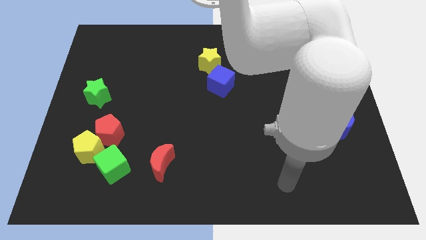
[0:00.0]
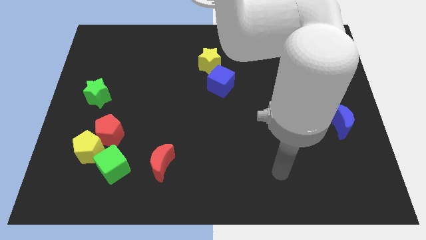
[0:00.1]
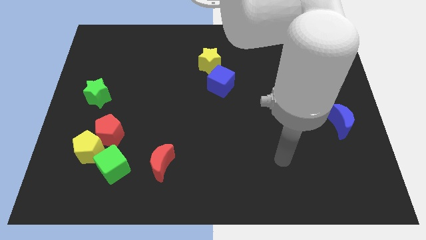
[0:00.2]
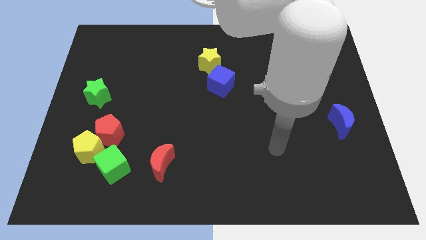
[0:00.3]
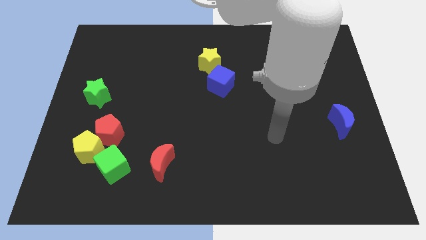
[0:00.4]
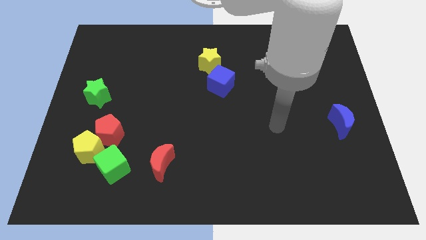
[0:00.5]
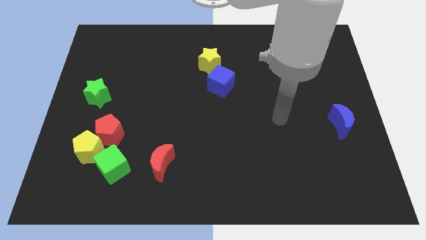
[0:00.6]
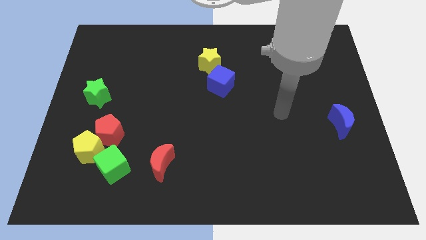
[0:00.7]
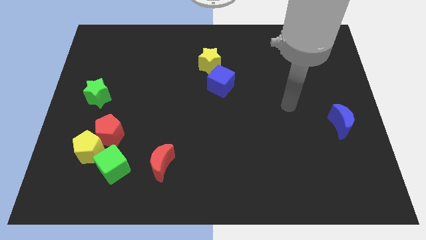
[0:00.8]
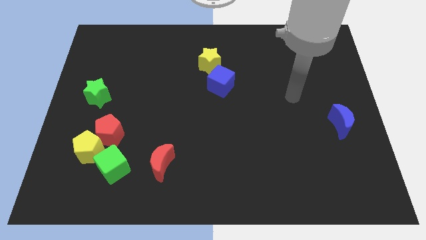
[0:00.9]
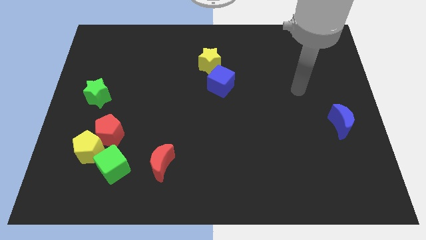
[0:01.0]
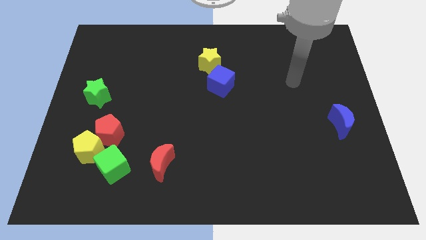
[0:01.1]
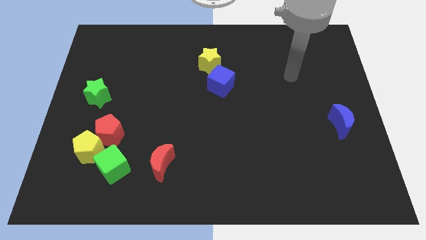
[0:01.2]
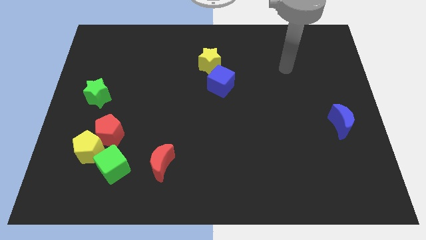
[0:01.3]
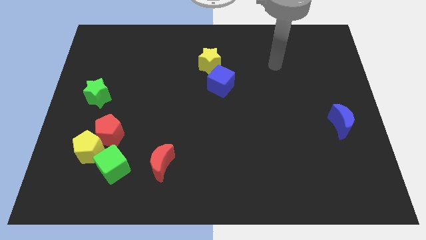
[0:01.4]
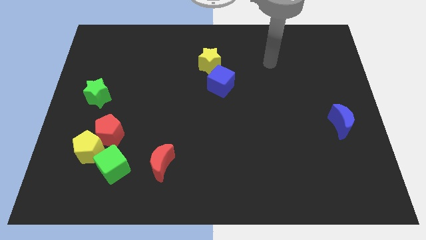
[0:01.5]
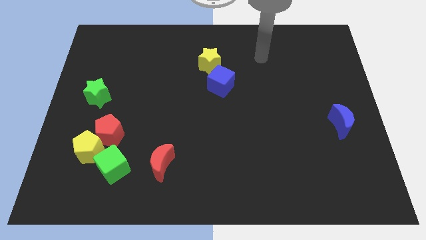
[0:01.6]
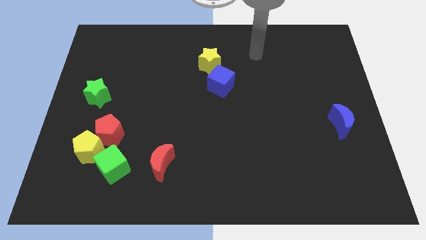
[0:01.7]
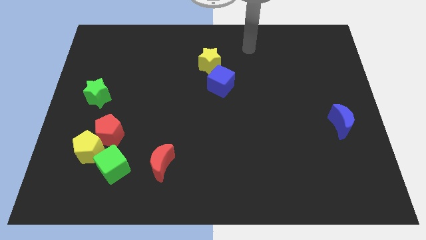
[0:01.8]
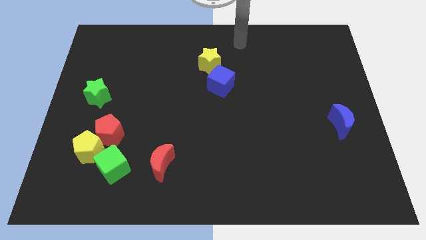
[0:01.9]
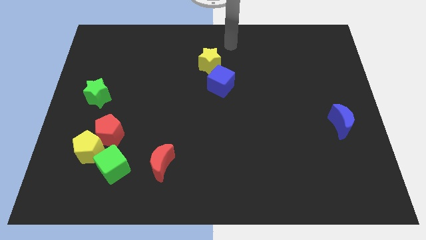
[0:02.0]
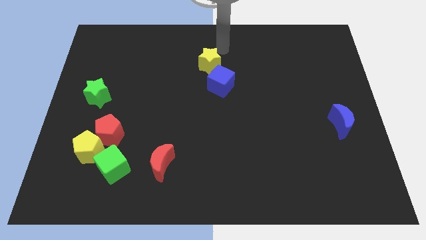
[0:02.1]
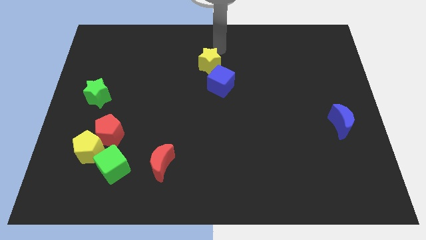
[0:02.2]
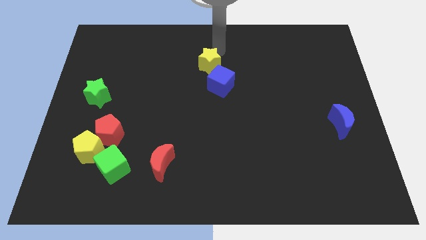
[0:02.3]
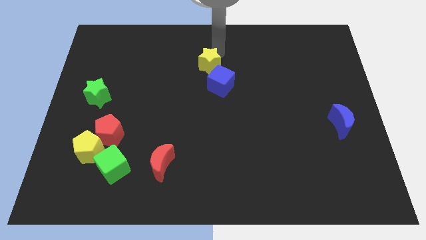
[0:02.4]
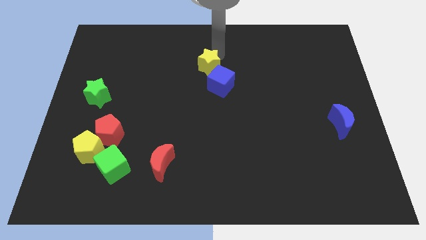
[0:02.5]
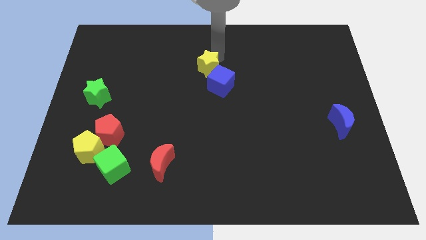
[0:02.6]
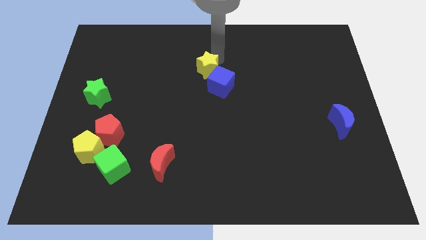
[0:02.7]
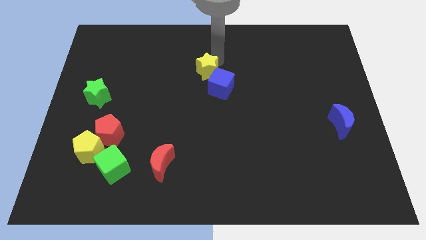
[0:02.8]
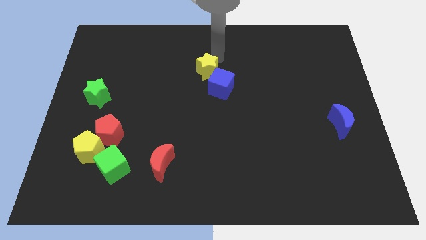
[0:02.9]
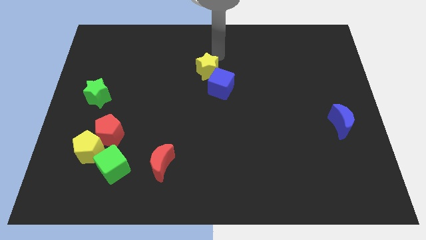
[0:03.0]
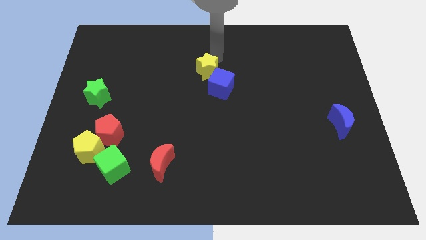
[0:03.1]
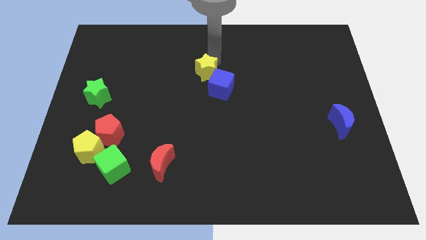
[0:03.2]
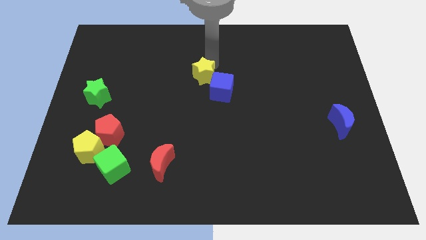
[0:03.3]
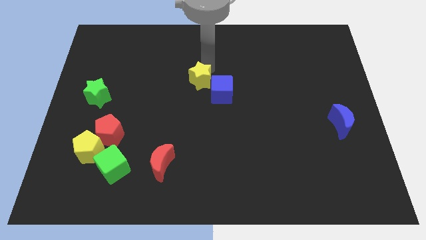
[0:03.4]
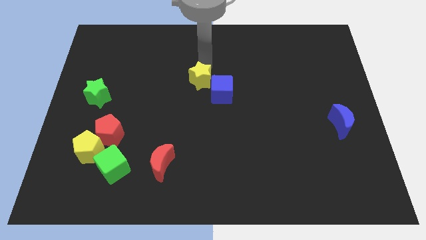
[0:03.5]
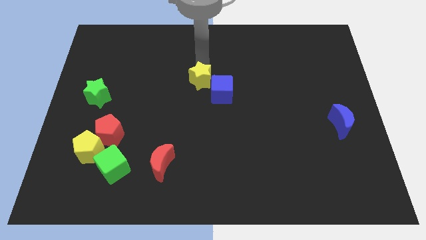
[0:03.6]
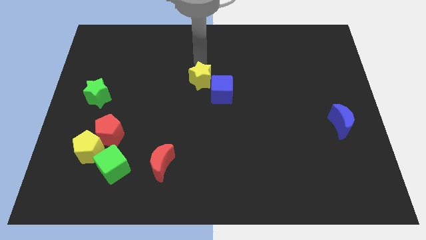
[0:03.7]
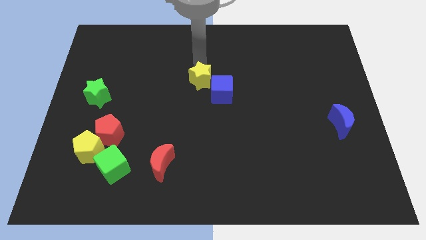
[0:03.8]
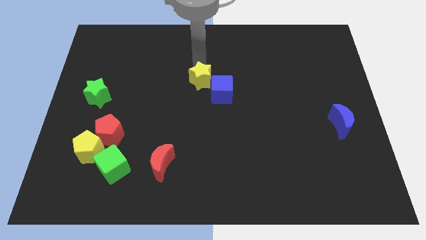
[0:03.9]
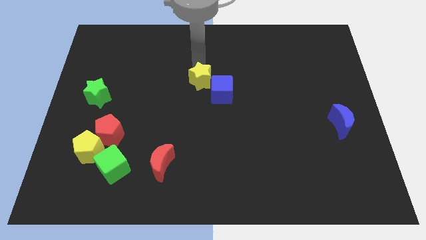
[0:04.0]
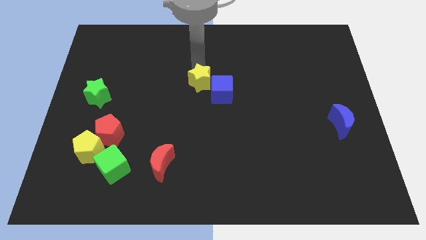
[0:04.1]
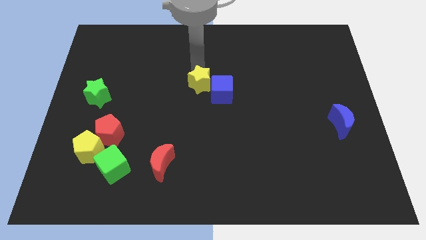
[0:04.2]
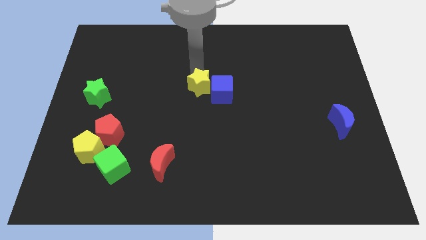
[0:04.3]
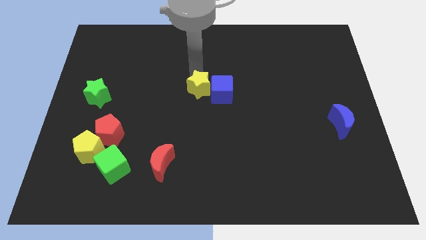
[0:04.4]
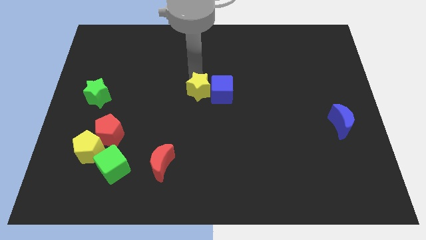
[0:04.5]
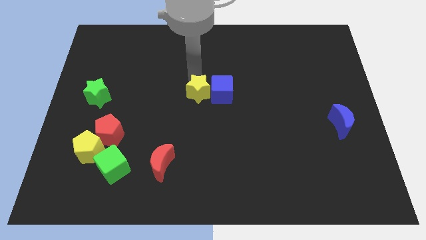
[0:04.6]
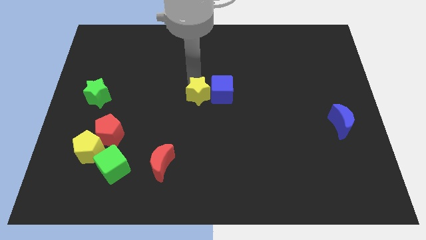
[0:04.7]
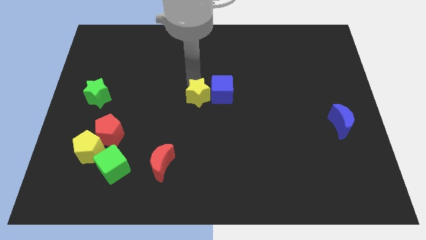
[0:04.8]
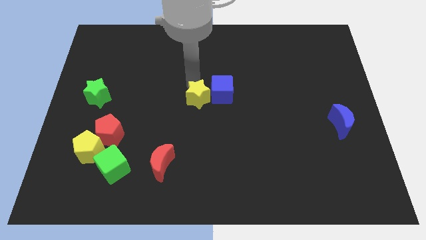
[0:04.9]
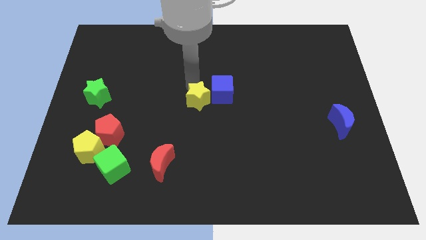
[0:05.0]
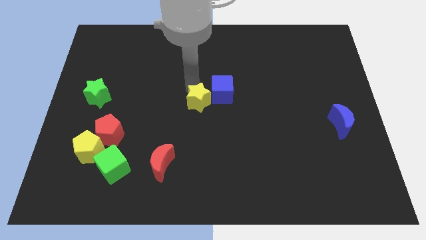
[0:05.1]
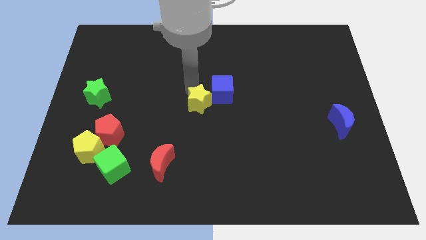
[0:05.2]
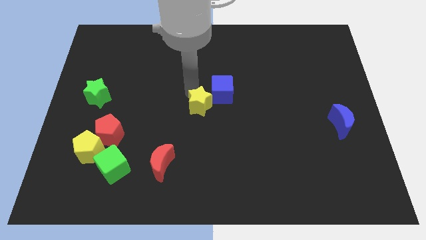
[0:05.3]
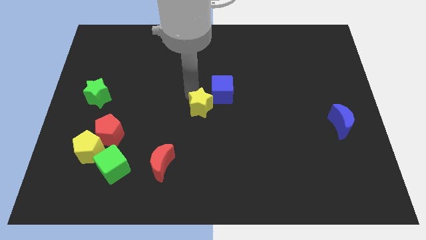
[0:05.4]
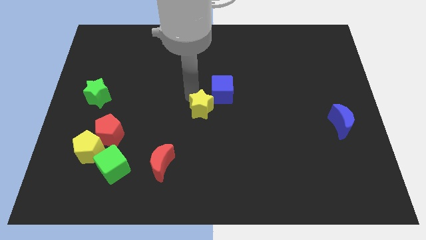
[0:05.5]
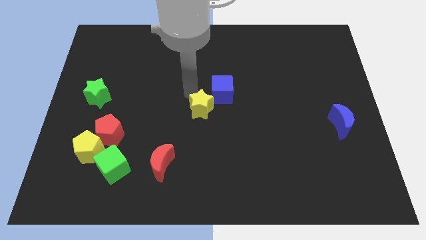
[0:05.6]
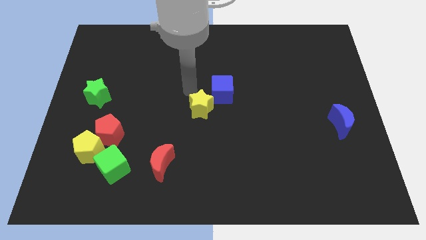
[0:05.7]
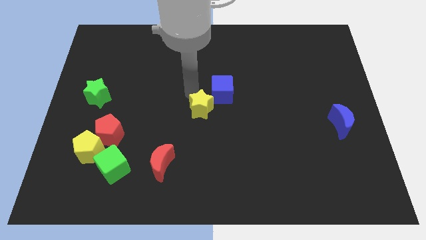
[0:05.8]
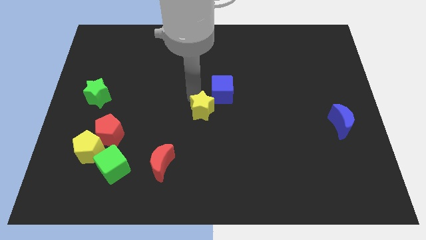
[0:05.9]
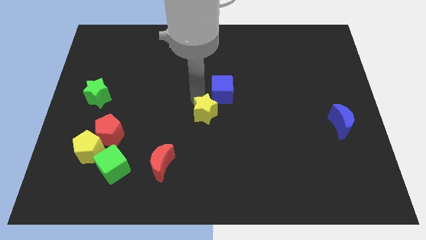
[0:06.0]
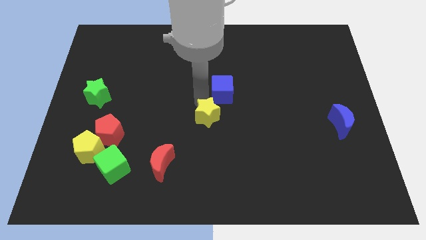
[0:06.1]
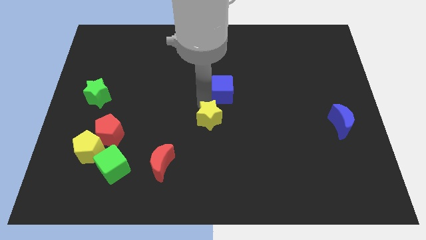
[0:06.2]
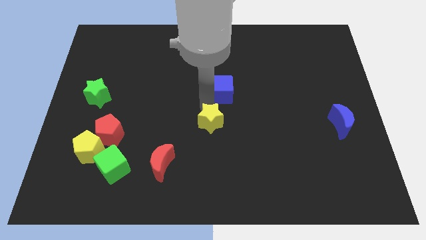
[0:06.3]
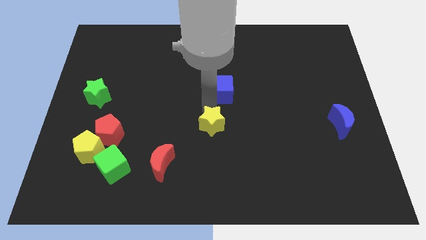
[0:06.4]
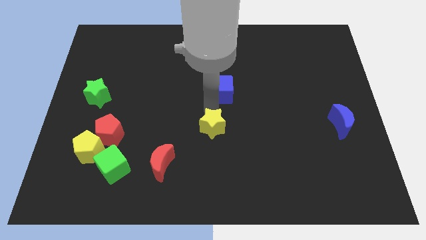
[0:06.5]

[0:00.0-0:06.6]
move the yellow star downwards

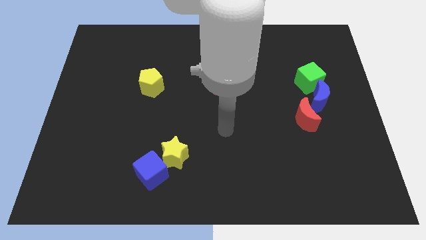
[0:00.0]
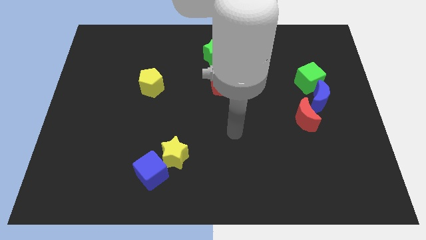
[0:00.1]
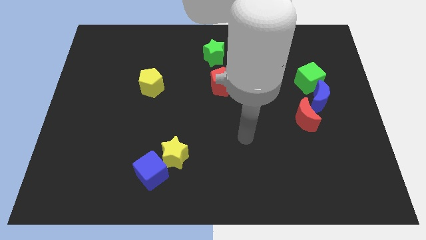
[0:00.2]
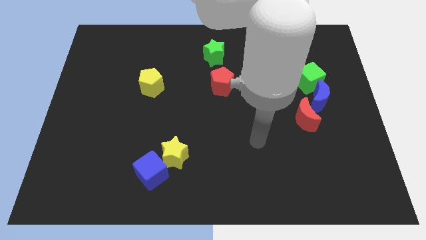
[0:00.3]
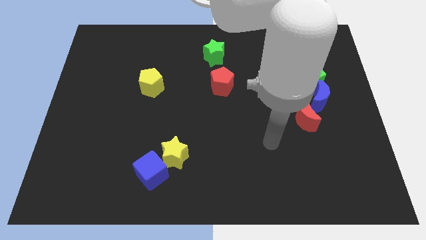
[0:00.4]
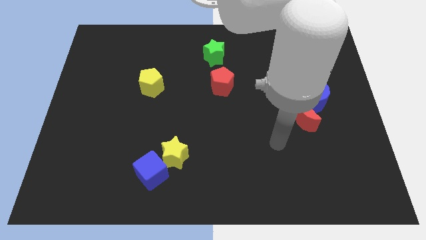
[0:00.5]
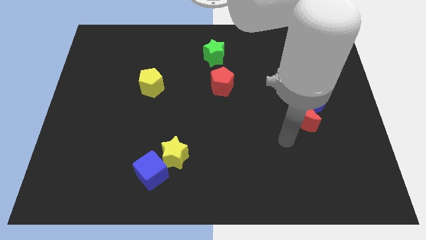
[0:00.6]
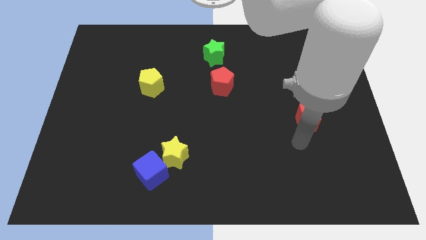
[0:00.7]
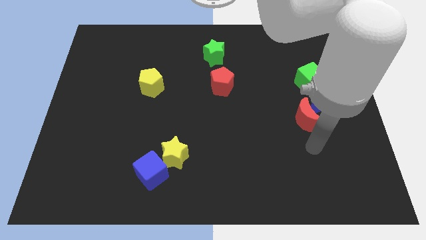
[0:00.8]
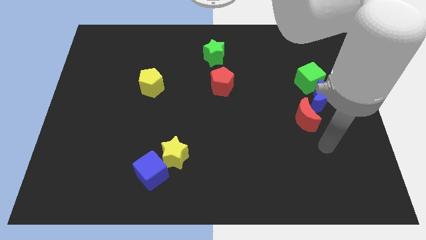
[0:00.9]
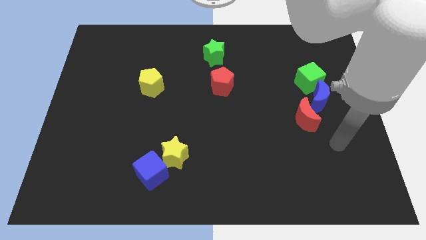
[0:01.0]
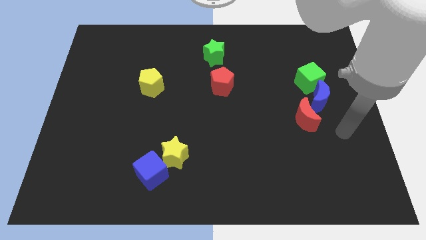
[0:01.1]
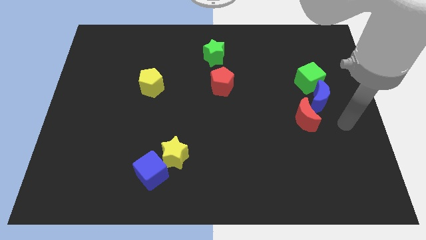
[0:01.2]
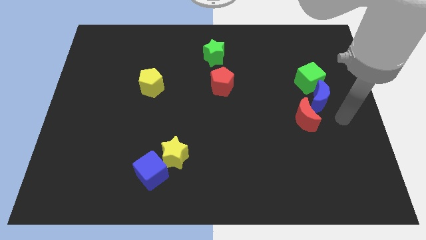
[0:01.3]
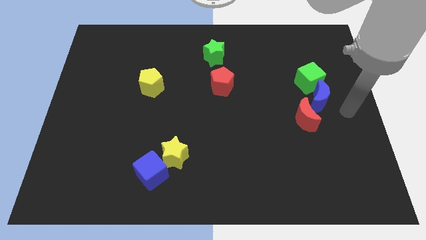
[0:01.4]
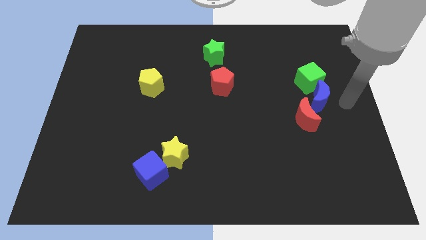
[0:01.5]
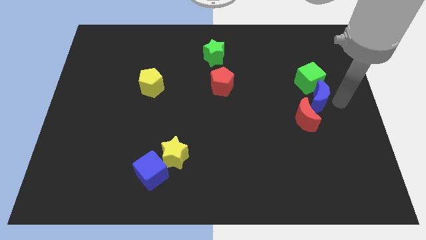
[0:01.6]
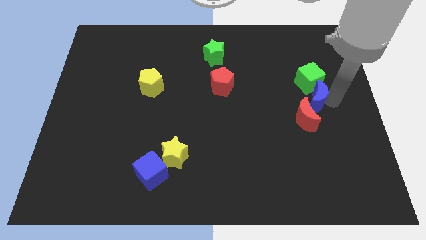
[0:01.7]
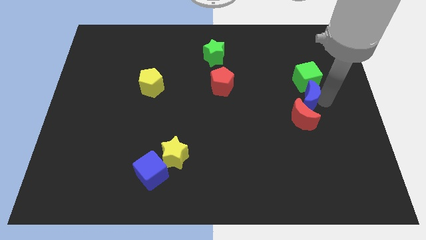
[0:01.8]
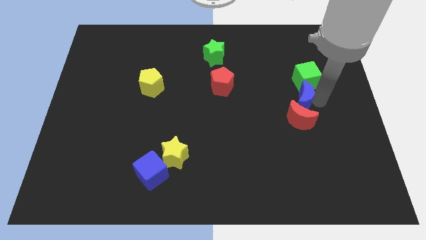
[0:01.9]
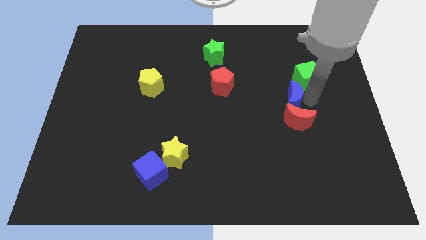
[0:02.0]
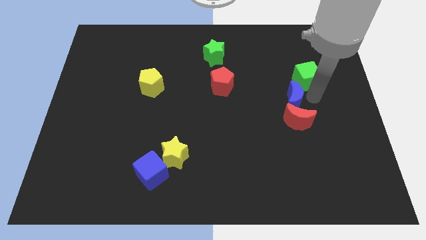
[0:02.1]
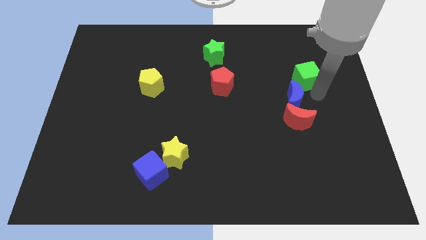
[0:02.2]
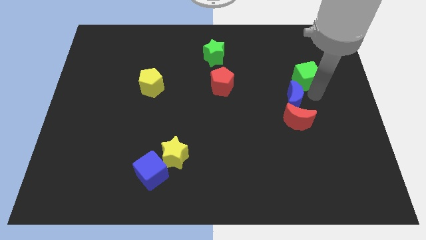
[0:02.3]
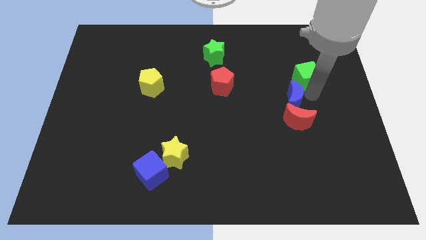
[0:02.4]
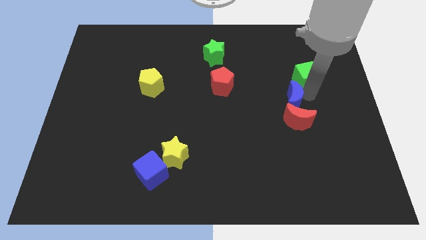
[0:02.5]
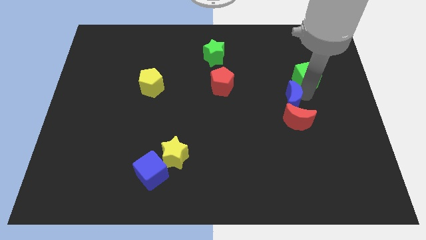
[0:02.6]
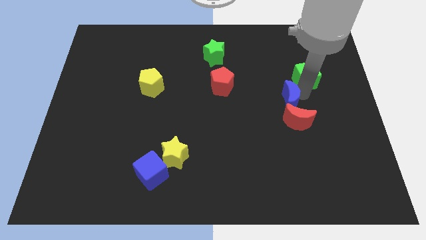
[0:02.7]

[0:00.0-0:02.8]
push the blue moon left a little
